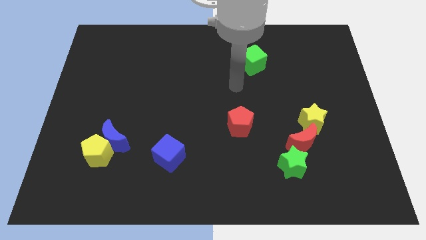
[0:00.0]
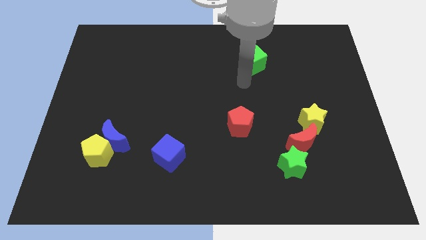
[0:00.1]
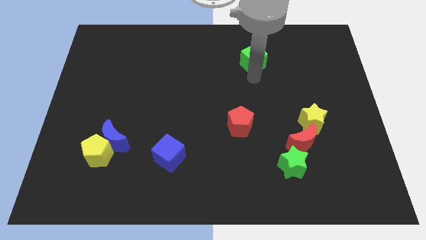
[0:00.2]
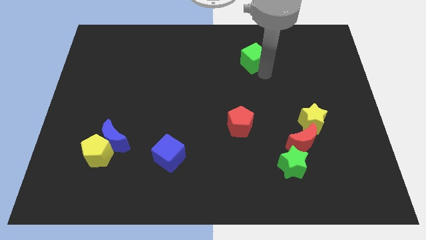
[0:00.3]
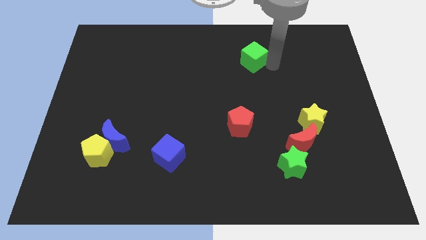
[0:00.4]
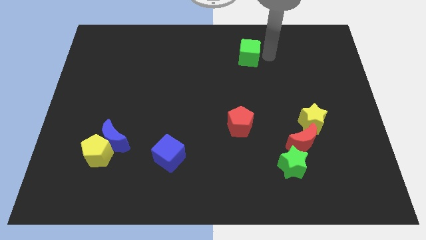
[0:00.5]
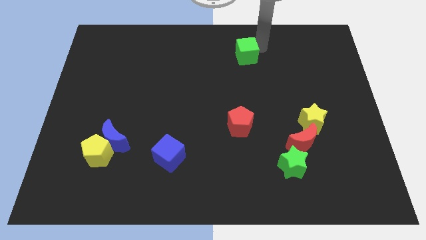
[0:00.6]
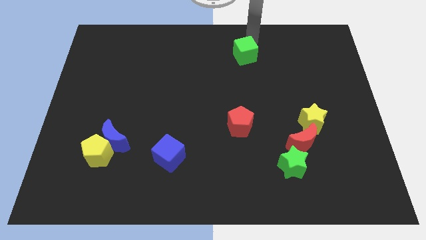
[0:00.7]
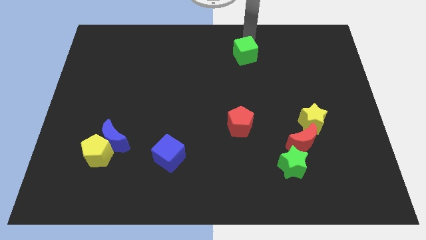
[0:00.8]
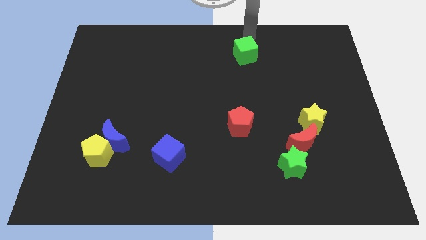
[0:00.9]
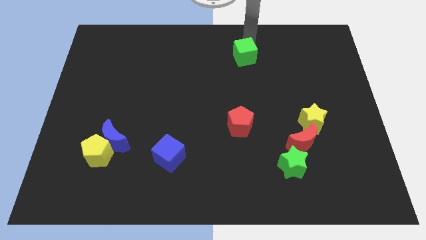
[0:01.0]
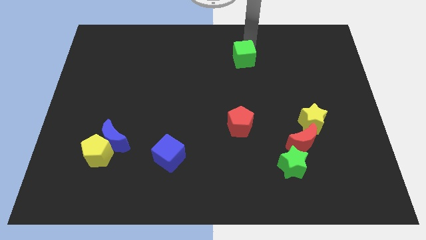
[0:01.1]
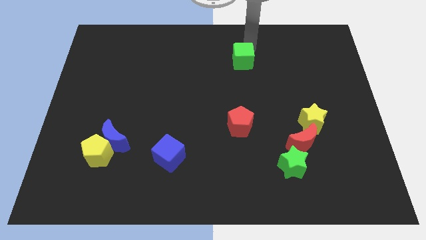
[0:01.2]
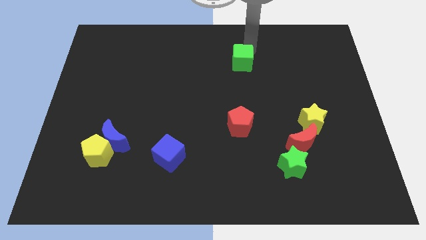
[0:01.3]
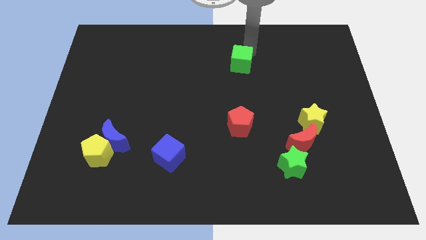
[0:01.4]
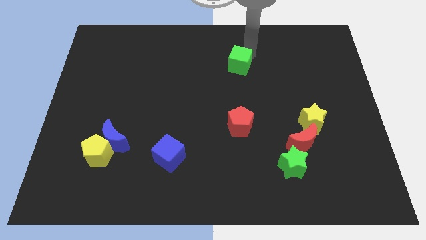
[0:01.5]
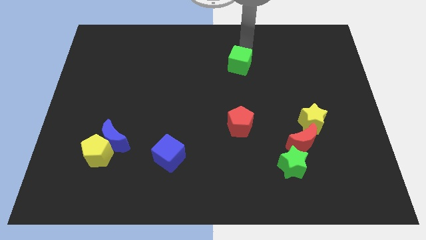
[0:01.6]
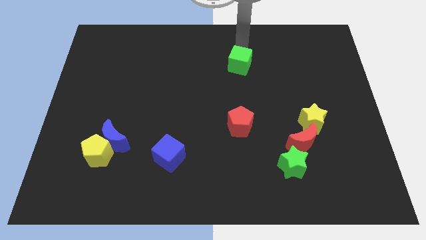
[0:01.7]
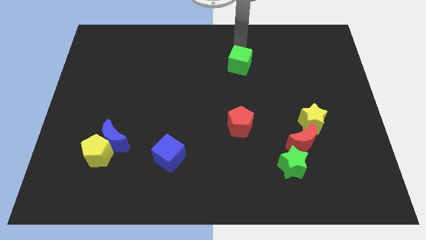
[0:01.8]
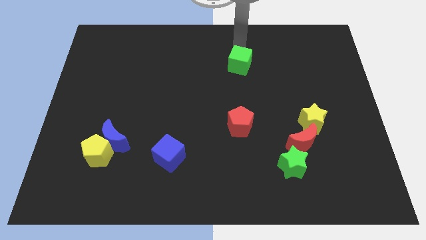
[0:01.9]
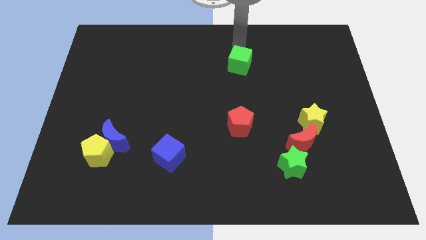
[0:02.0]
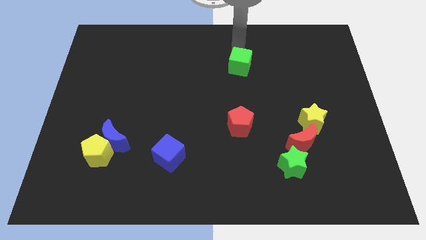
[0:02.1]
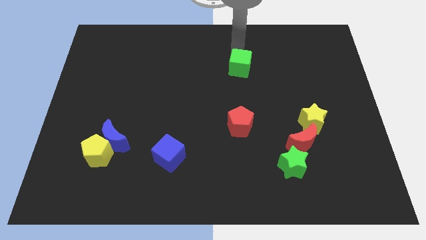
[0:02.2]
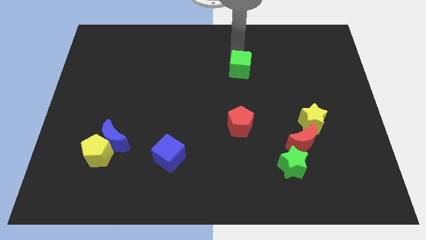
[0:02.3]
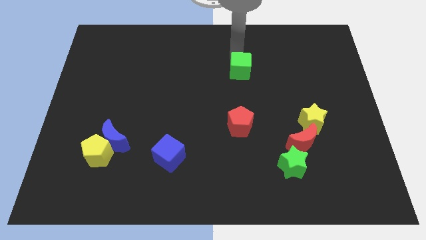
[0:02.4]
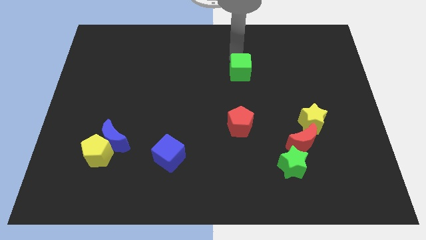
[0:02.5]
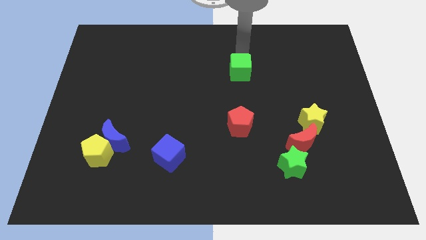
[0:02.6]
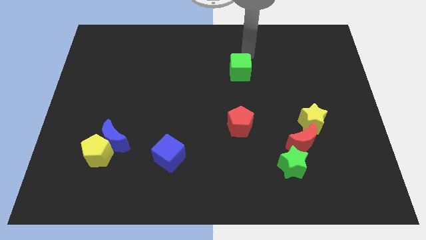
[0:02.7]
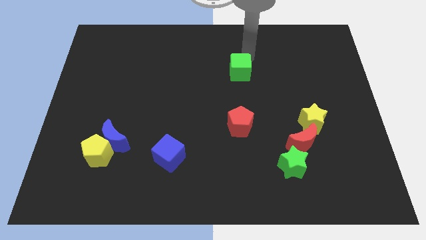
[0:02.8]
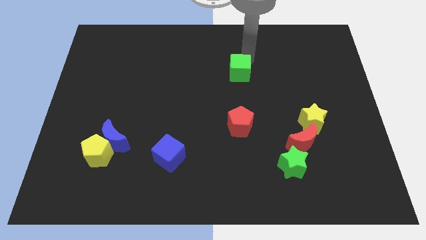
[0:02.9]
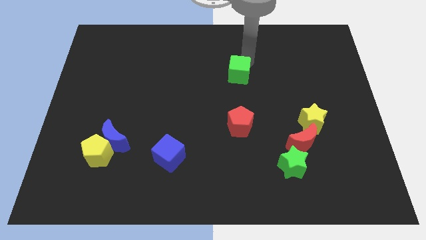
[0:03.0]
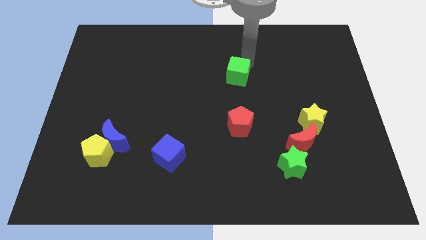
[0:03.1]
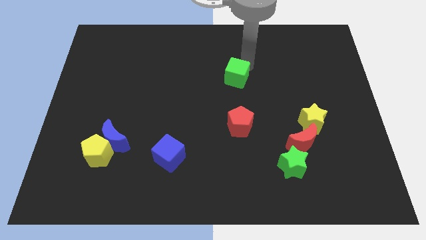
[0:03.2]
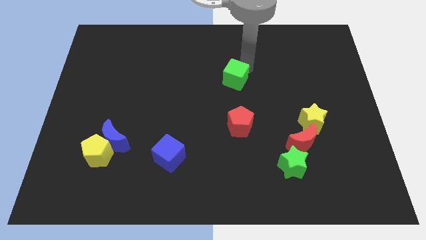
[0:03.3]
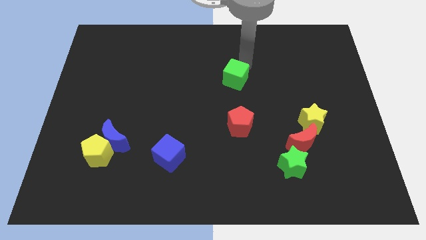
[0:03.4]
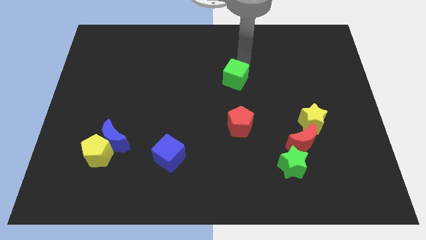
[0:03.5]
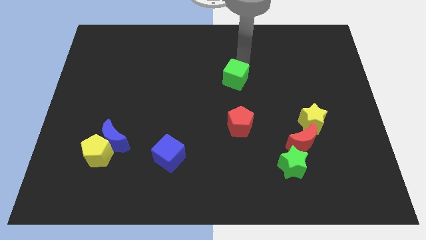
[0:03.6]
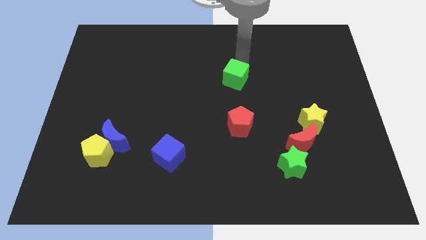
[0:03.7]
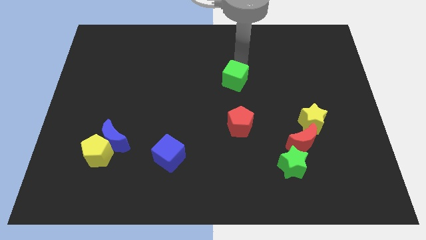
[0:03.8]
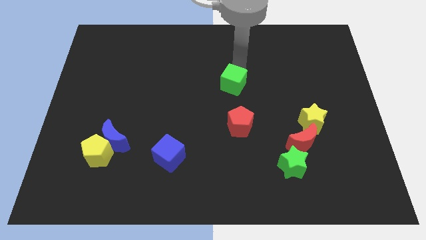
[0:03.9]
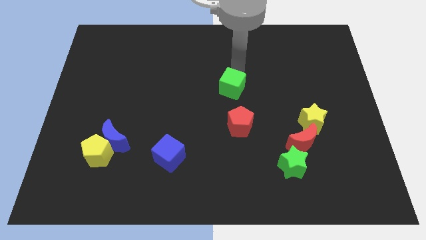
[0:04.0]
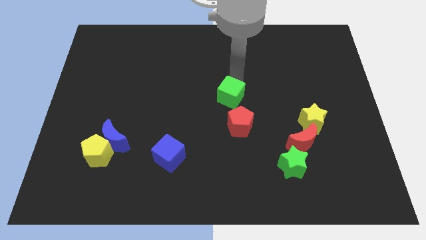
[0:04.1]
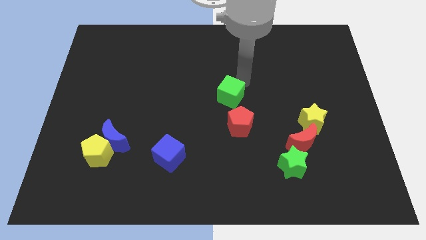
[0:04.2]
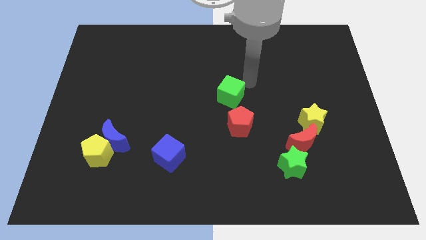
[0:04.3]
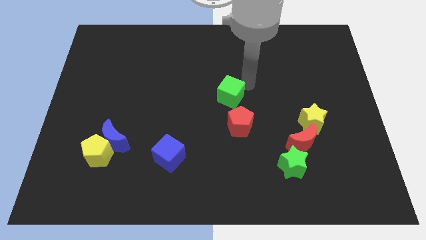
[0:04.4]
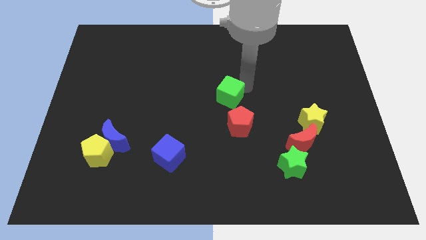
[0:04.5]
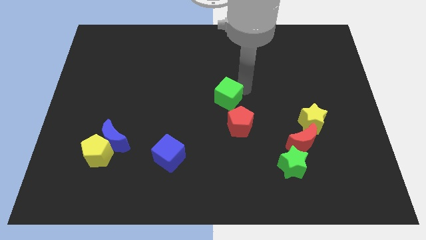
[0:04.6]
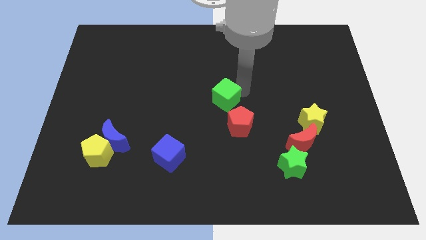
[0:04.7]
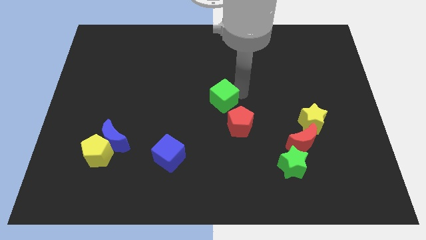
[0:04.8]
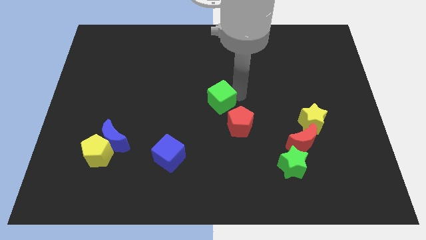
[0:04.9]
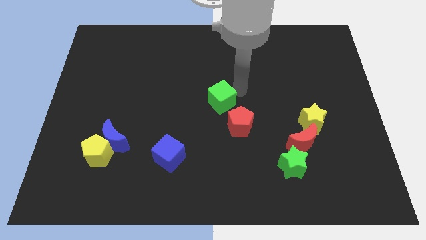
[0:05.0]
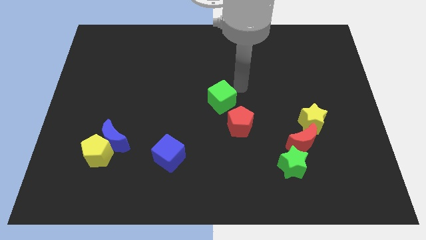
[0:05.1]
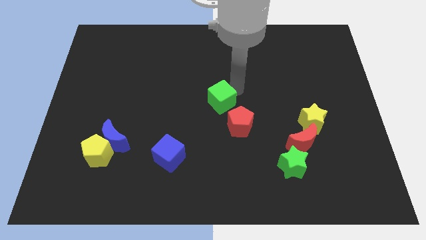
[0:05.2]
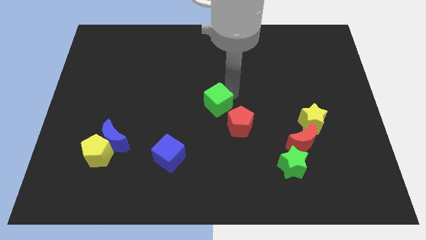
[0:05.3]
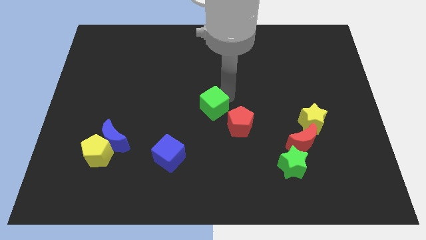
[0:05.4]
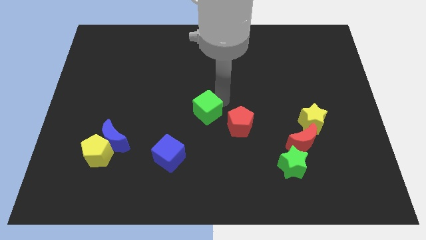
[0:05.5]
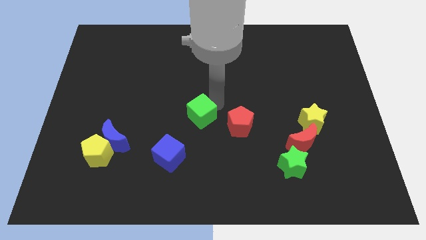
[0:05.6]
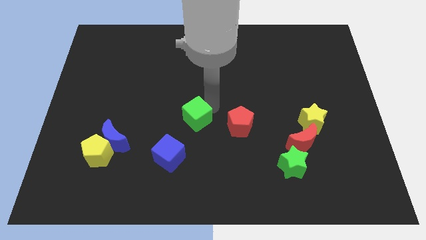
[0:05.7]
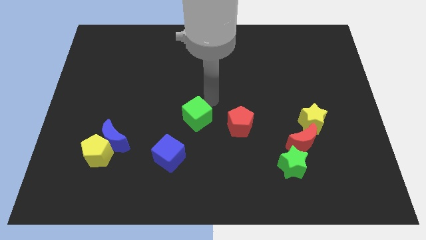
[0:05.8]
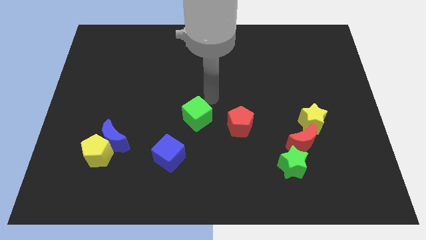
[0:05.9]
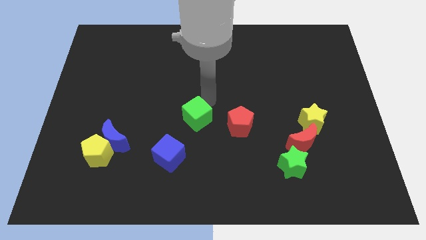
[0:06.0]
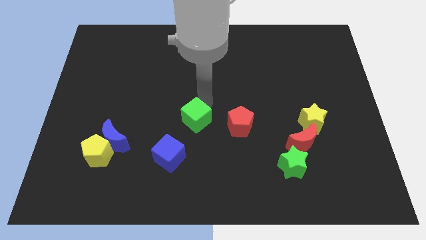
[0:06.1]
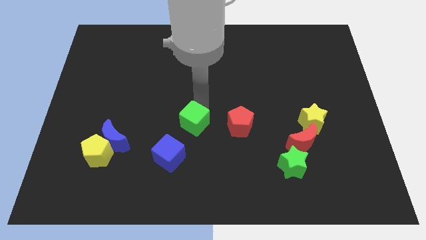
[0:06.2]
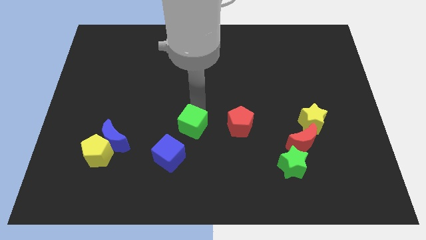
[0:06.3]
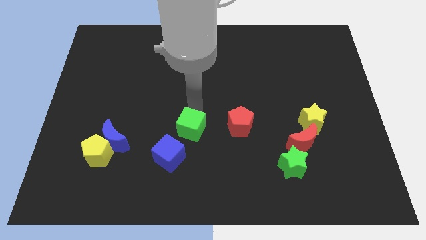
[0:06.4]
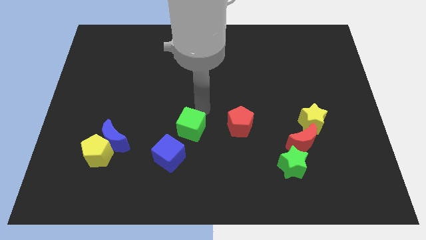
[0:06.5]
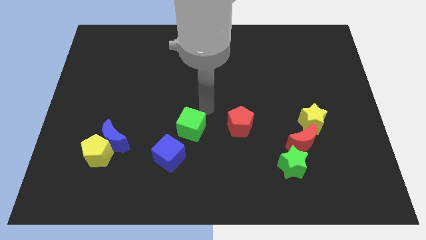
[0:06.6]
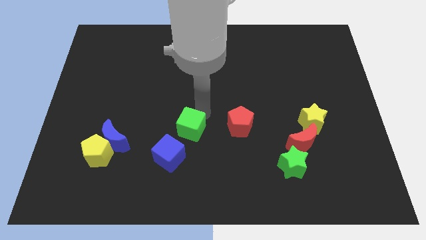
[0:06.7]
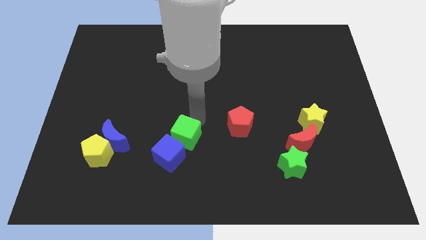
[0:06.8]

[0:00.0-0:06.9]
move the green cube close to the blue cube
